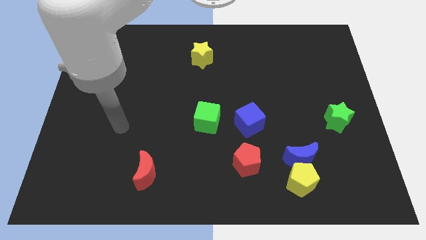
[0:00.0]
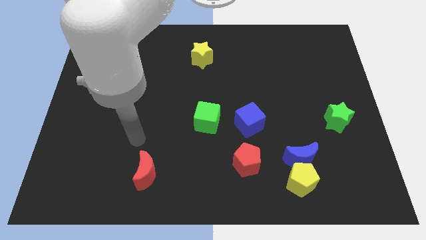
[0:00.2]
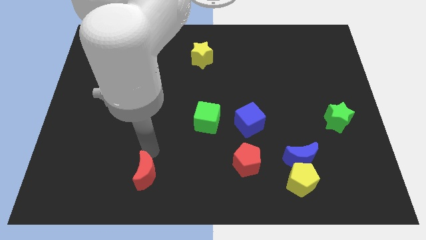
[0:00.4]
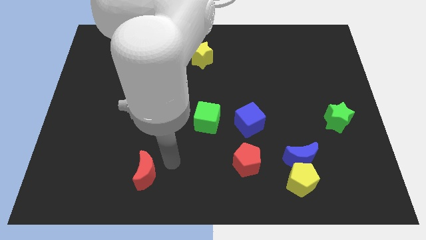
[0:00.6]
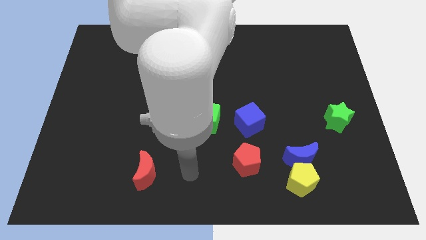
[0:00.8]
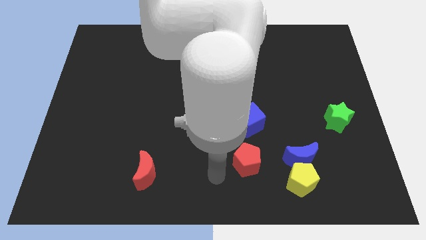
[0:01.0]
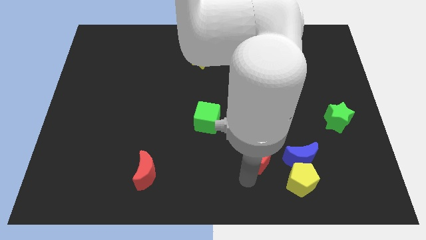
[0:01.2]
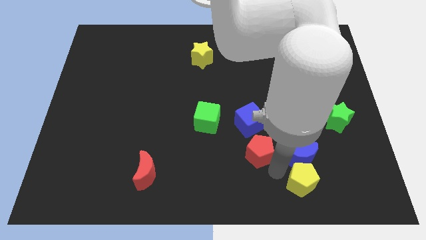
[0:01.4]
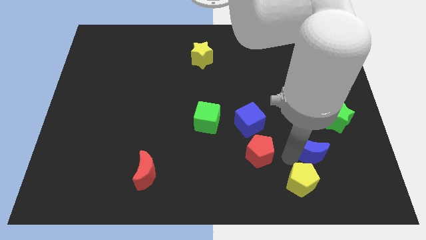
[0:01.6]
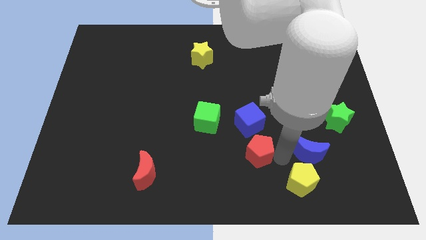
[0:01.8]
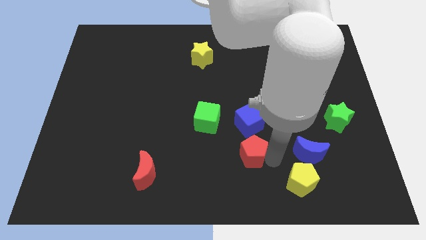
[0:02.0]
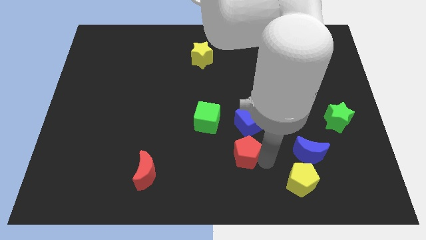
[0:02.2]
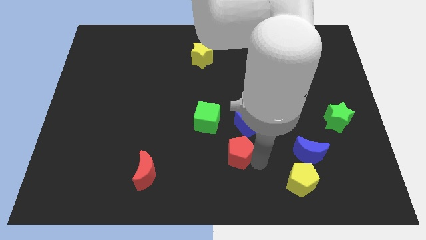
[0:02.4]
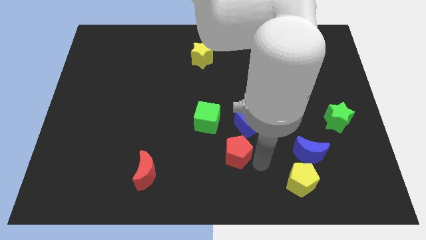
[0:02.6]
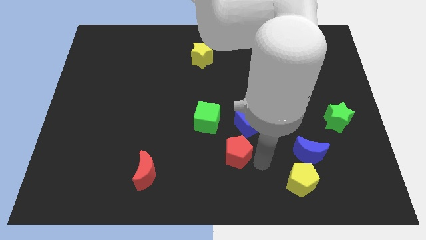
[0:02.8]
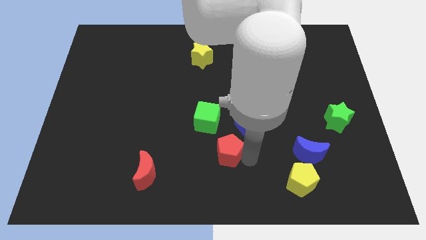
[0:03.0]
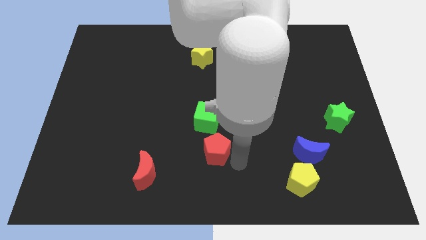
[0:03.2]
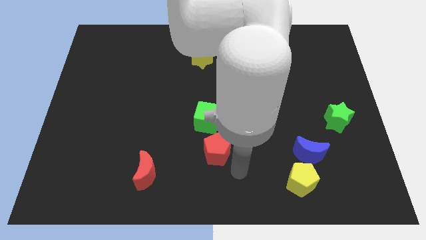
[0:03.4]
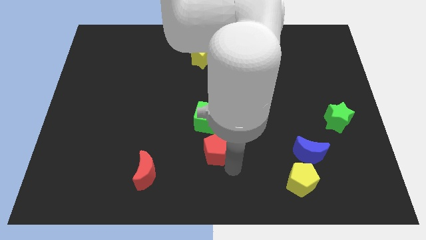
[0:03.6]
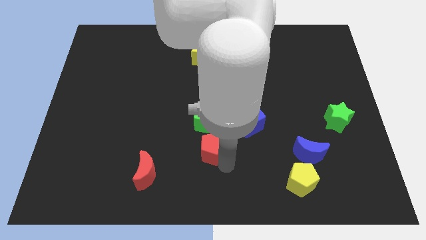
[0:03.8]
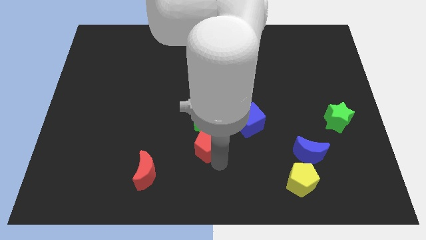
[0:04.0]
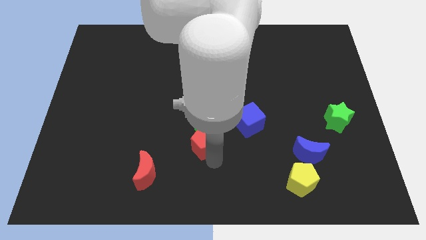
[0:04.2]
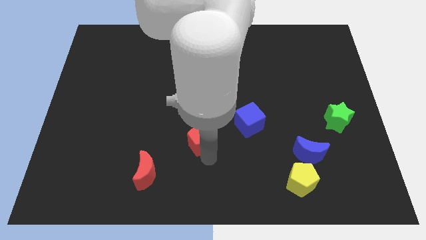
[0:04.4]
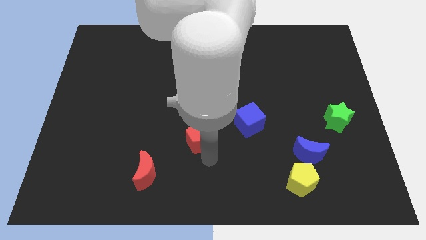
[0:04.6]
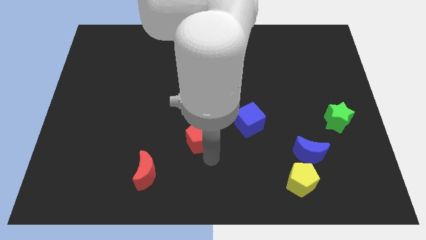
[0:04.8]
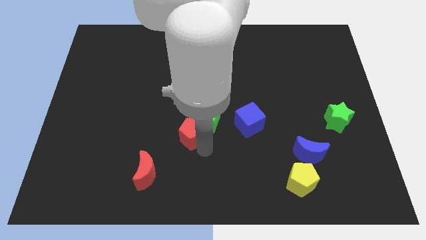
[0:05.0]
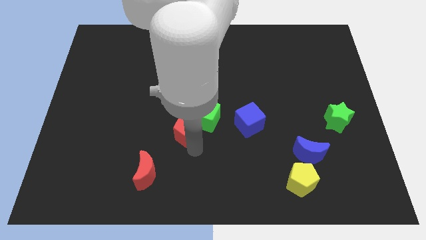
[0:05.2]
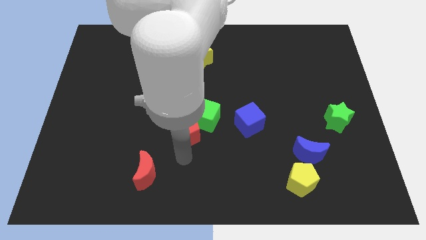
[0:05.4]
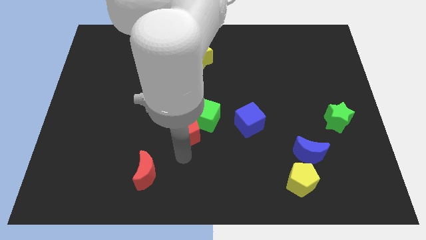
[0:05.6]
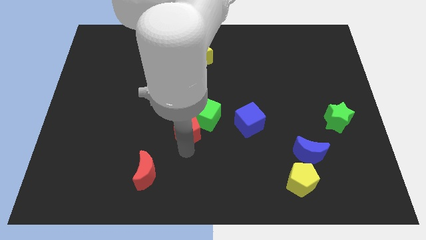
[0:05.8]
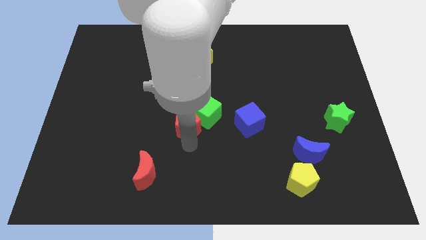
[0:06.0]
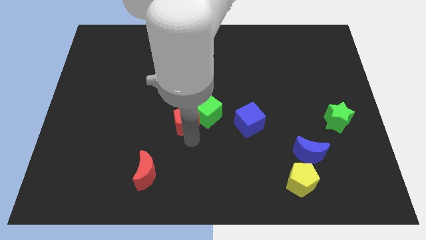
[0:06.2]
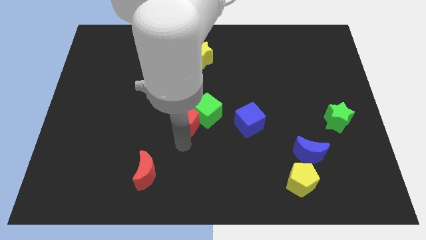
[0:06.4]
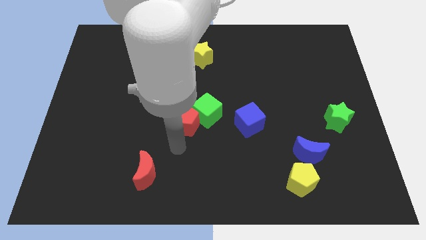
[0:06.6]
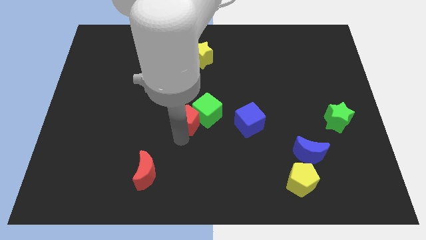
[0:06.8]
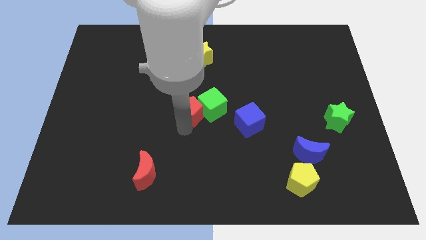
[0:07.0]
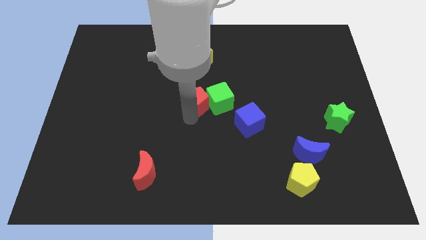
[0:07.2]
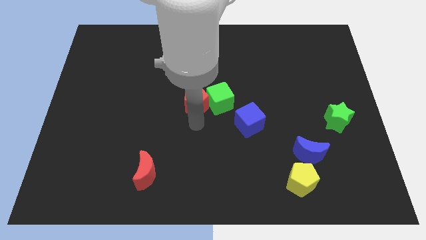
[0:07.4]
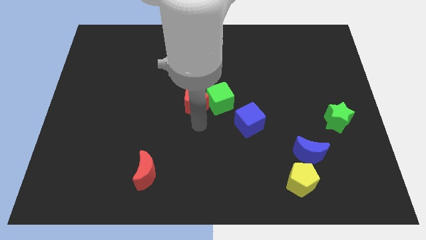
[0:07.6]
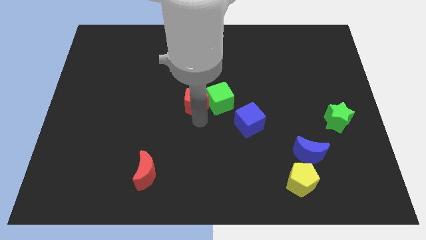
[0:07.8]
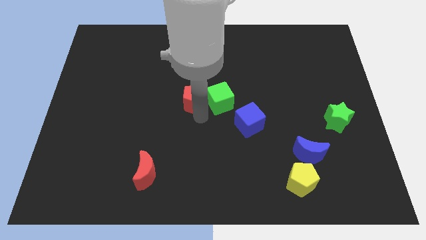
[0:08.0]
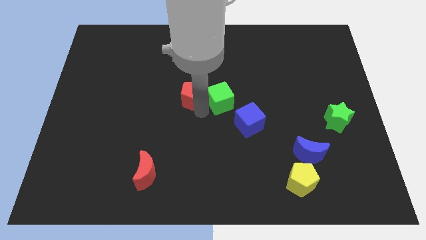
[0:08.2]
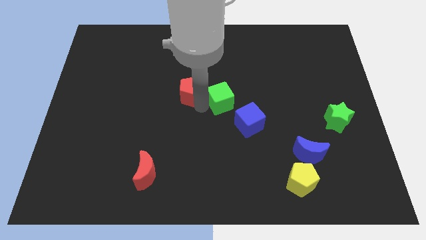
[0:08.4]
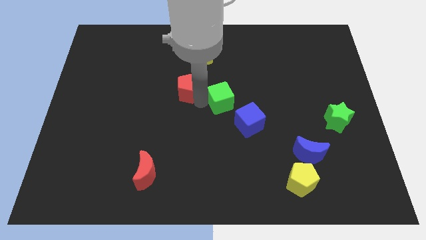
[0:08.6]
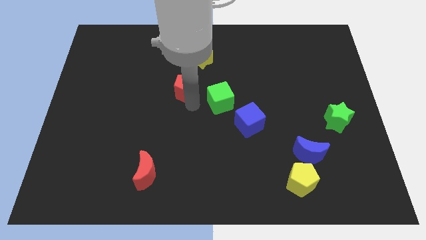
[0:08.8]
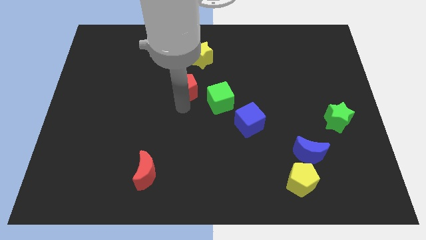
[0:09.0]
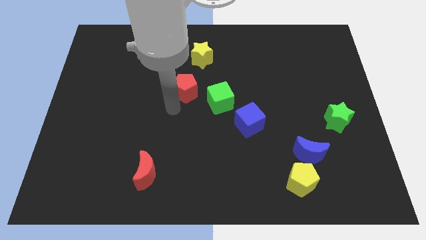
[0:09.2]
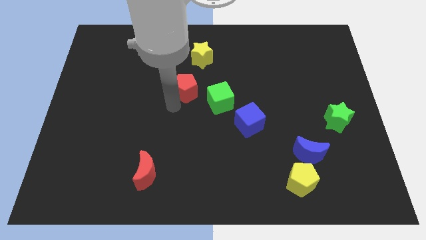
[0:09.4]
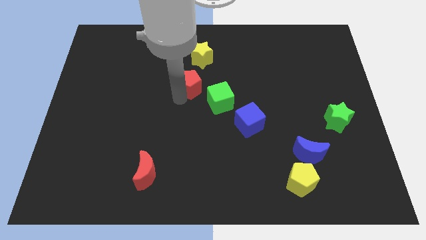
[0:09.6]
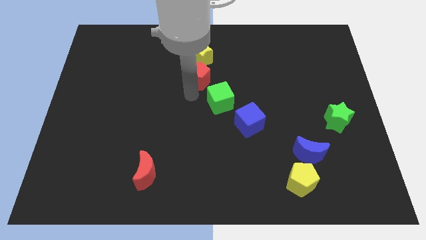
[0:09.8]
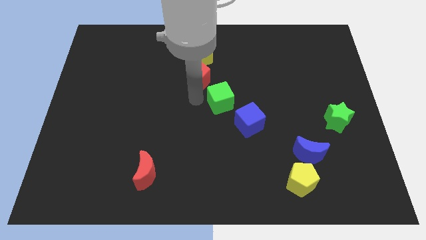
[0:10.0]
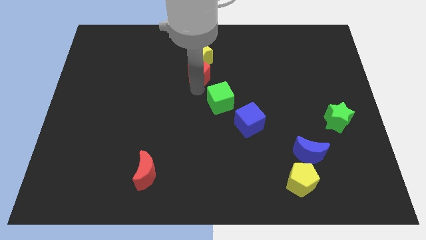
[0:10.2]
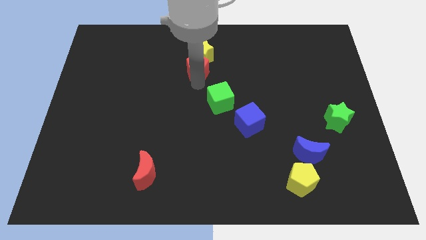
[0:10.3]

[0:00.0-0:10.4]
push the red pentagon next to the yellow star

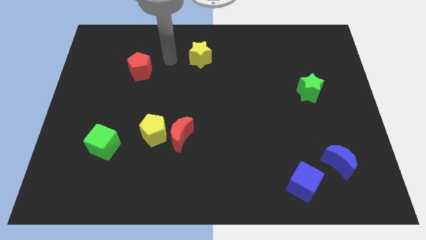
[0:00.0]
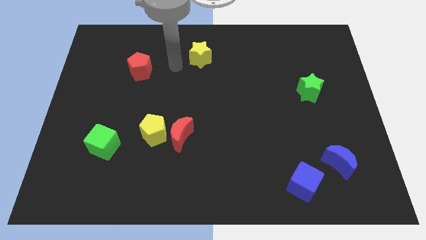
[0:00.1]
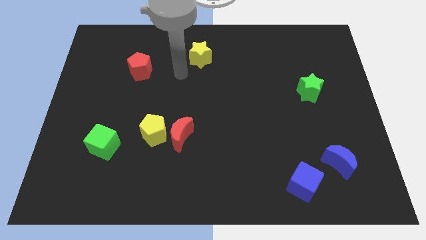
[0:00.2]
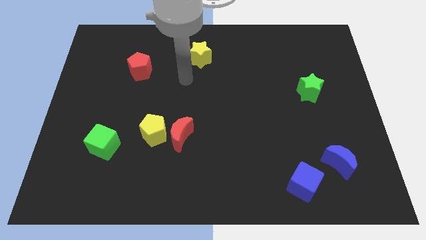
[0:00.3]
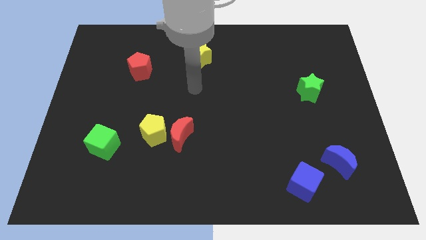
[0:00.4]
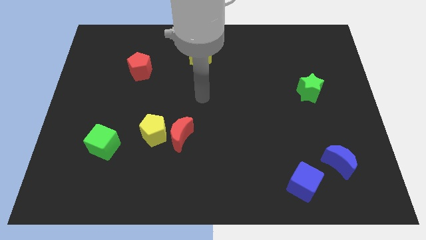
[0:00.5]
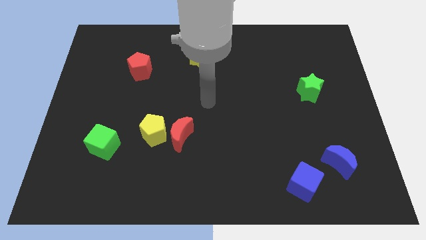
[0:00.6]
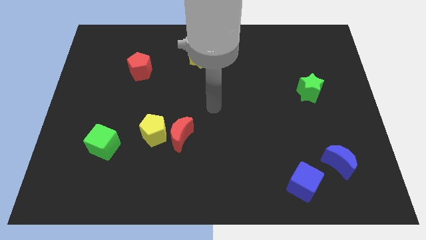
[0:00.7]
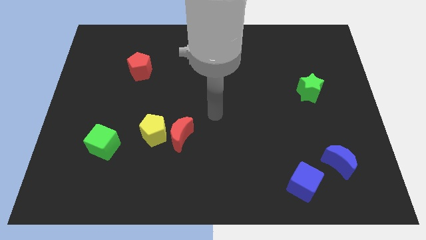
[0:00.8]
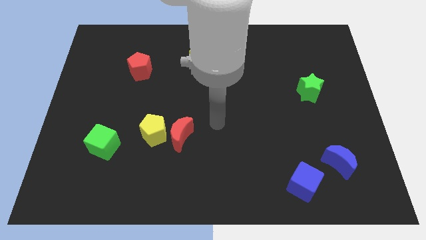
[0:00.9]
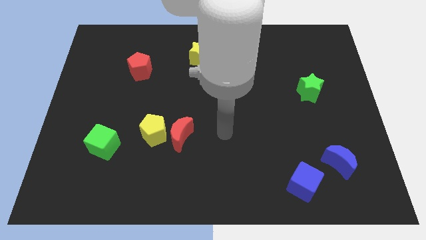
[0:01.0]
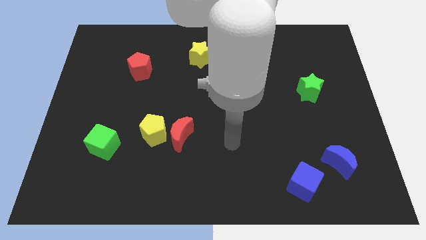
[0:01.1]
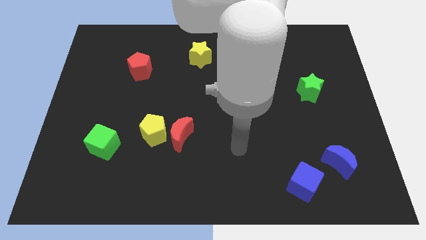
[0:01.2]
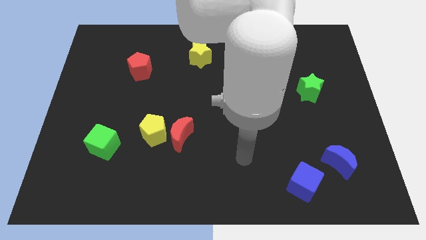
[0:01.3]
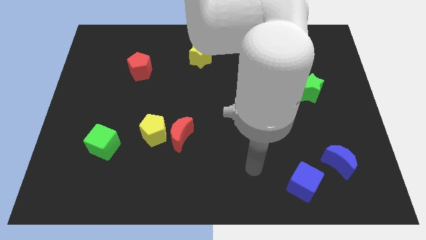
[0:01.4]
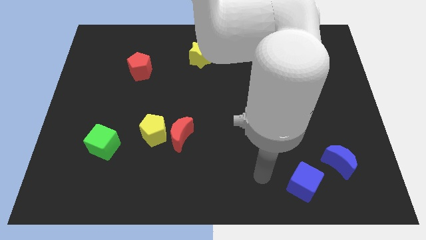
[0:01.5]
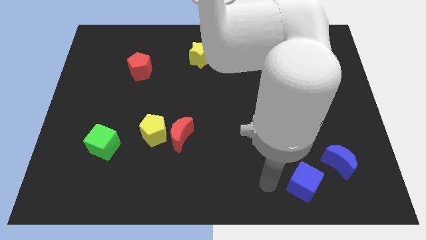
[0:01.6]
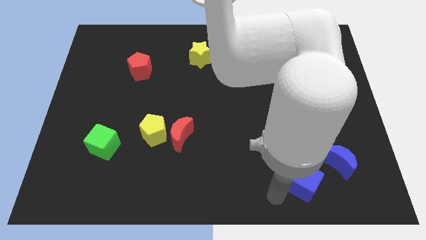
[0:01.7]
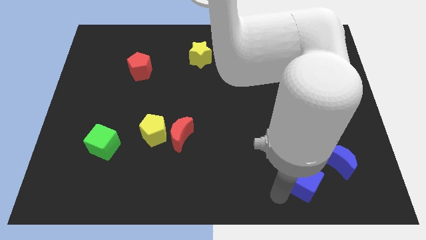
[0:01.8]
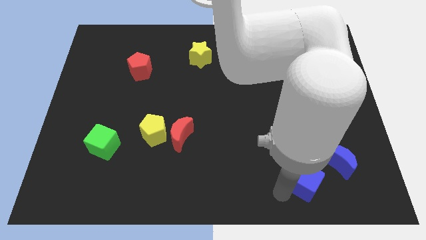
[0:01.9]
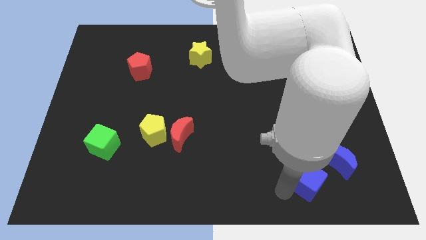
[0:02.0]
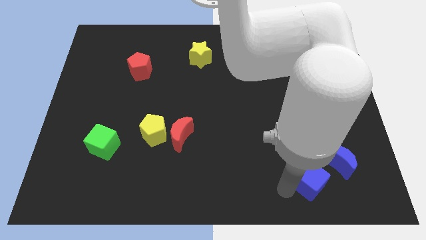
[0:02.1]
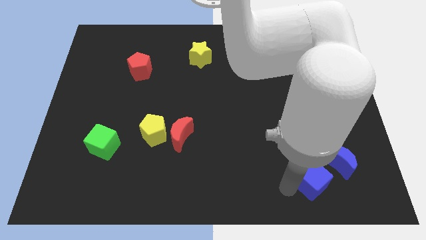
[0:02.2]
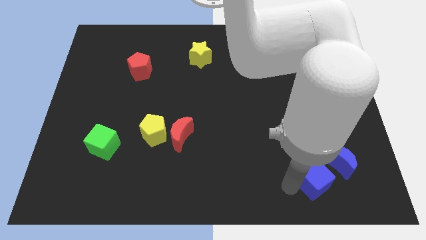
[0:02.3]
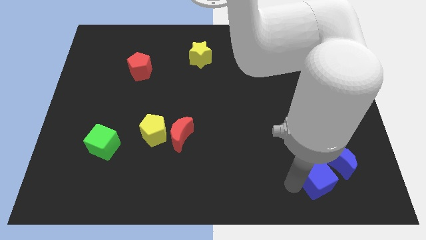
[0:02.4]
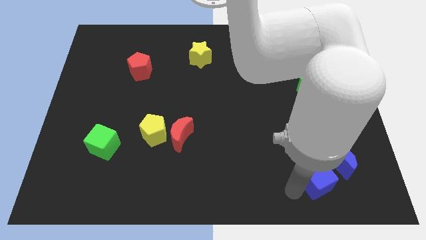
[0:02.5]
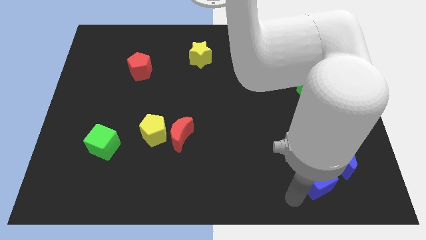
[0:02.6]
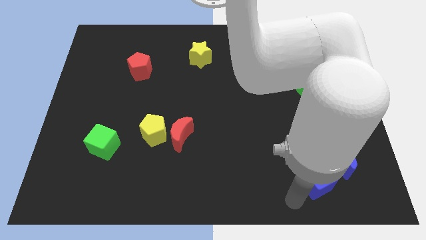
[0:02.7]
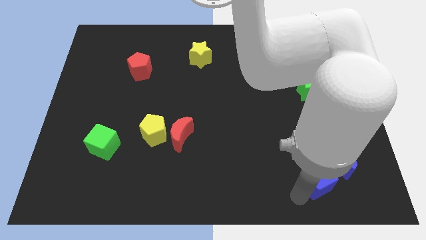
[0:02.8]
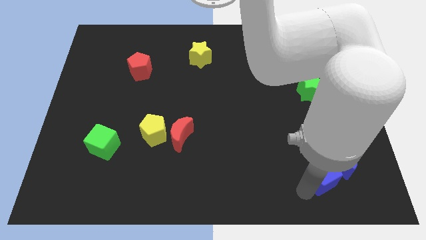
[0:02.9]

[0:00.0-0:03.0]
slide the blue cube next to the blue moon
